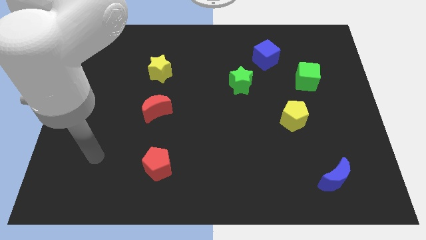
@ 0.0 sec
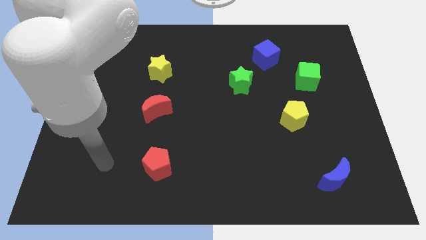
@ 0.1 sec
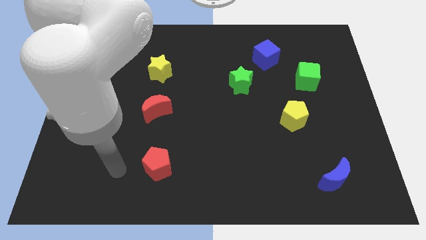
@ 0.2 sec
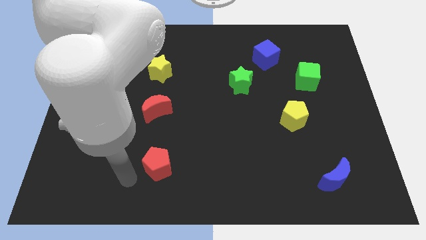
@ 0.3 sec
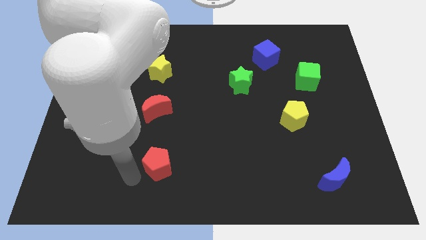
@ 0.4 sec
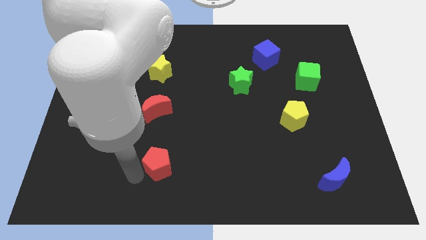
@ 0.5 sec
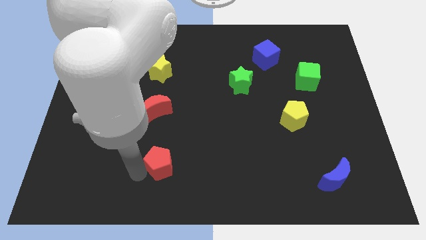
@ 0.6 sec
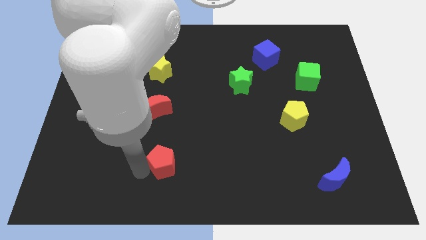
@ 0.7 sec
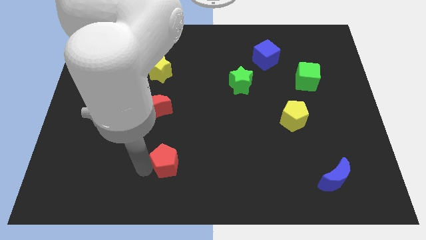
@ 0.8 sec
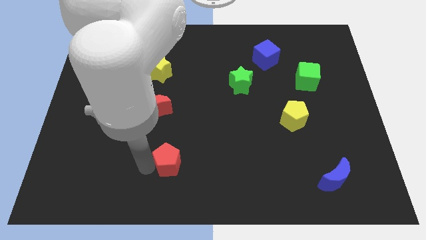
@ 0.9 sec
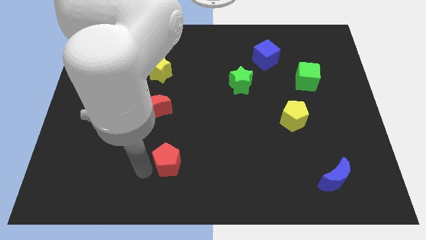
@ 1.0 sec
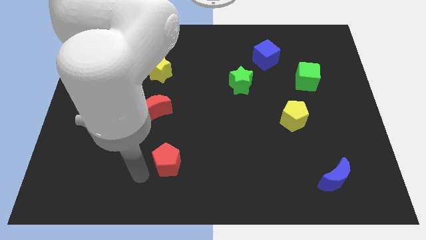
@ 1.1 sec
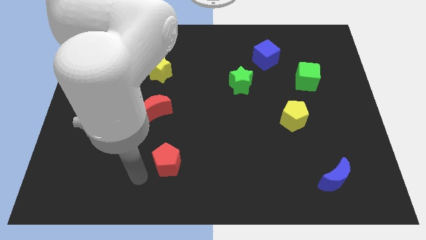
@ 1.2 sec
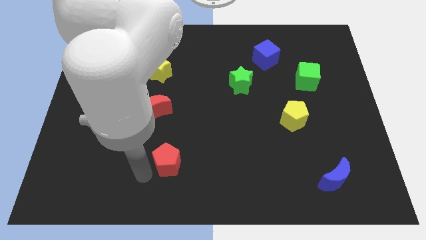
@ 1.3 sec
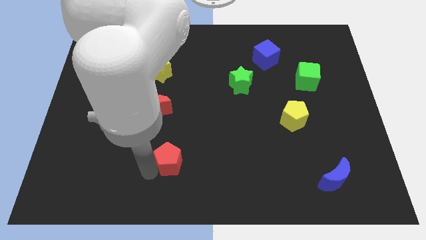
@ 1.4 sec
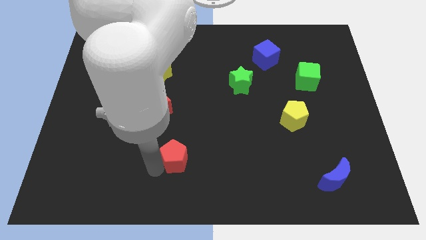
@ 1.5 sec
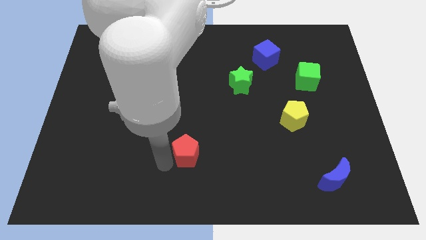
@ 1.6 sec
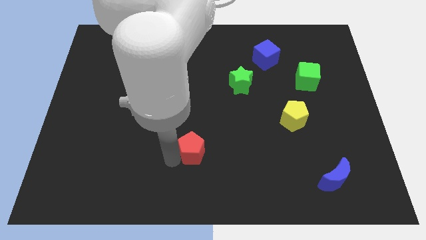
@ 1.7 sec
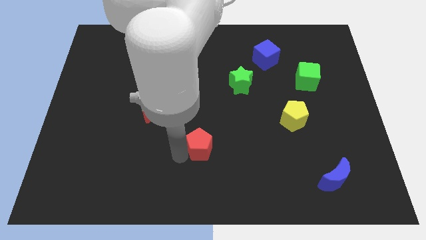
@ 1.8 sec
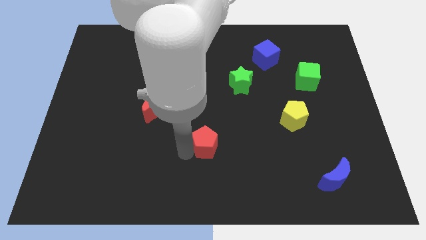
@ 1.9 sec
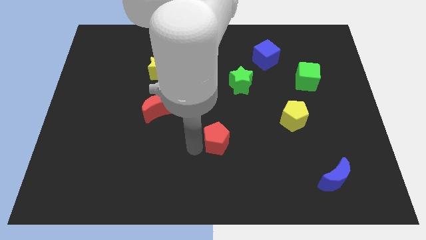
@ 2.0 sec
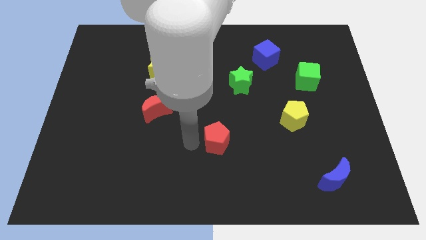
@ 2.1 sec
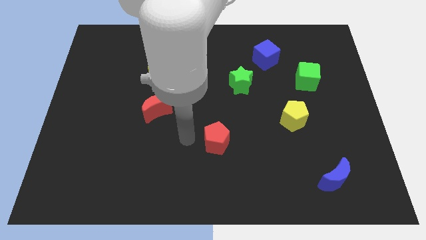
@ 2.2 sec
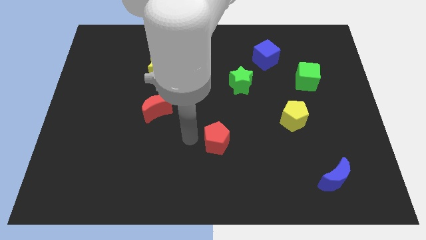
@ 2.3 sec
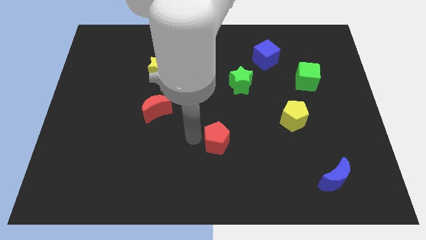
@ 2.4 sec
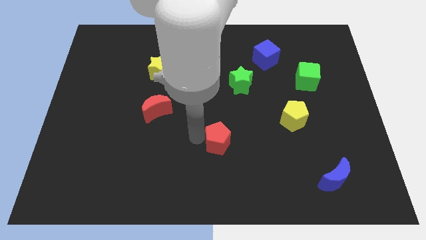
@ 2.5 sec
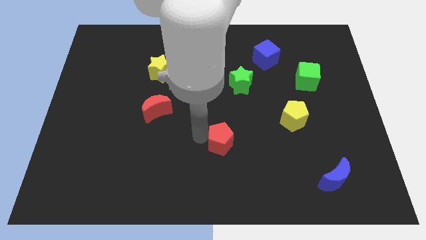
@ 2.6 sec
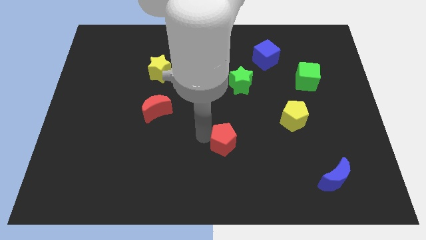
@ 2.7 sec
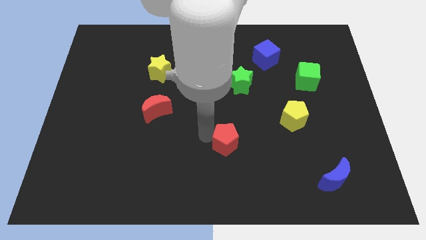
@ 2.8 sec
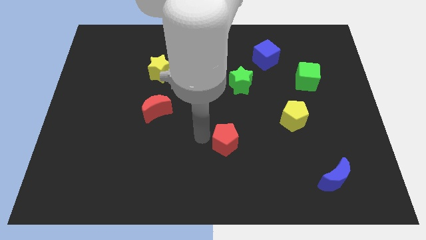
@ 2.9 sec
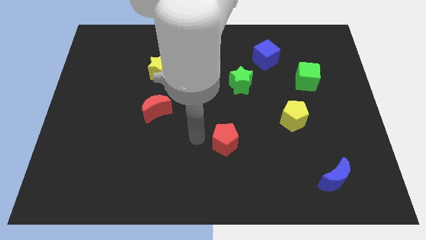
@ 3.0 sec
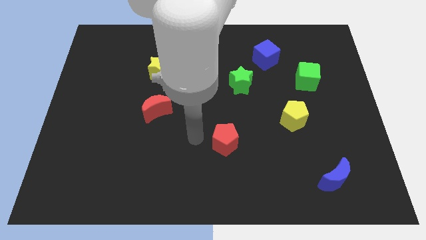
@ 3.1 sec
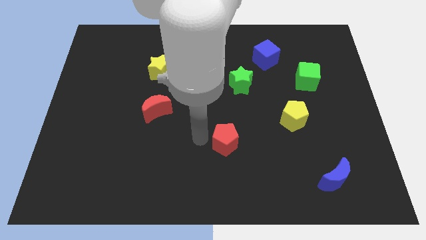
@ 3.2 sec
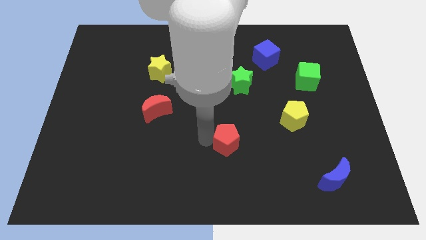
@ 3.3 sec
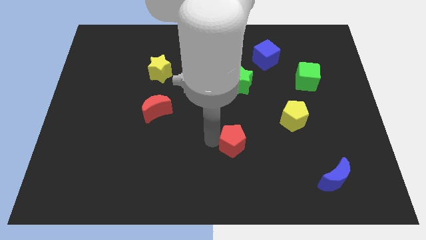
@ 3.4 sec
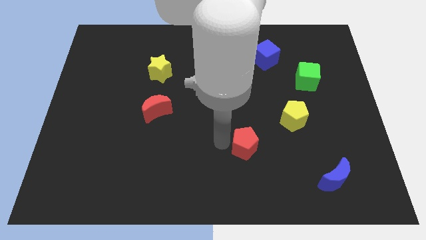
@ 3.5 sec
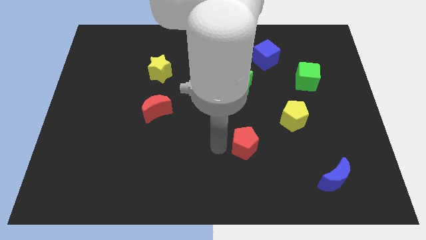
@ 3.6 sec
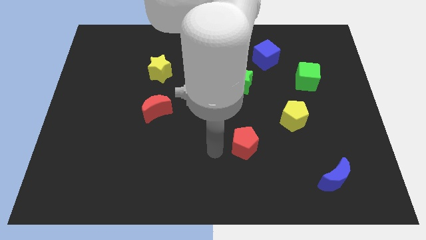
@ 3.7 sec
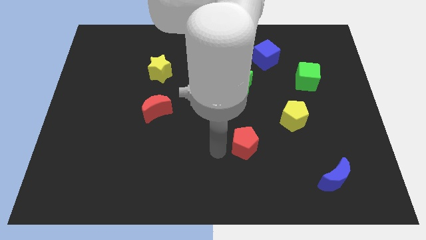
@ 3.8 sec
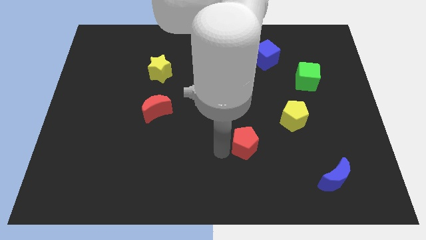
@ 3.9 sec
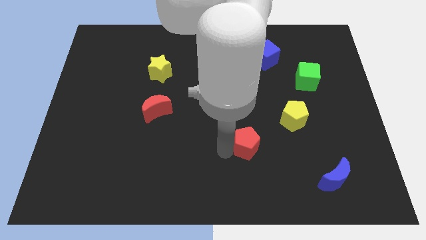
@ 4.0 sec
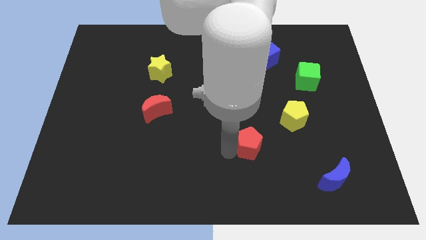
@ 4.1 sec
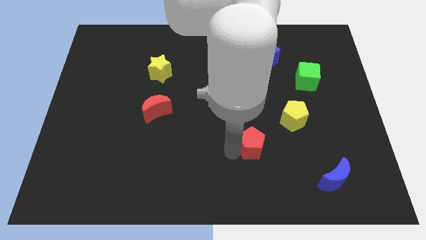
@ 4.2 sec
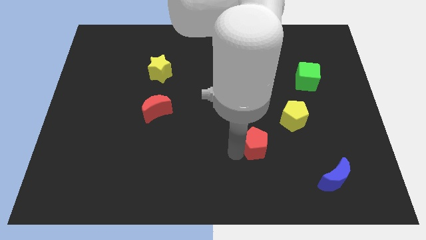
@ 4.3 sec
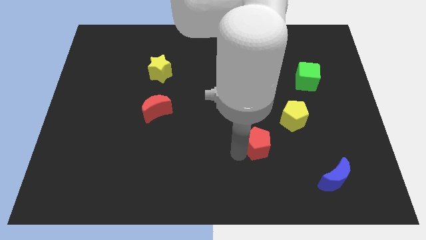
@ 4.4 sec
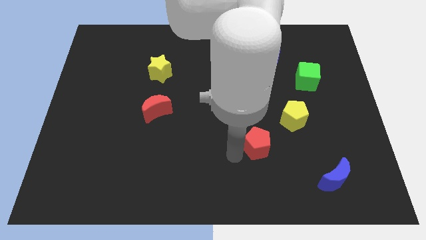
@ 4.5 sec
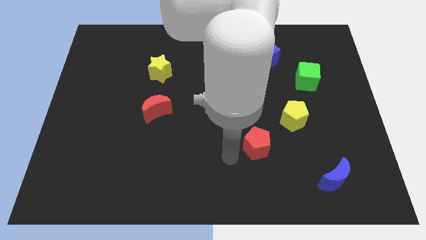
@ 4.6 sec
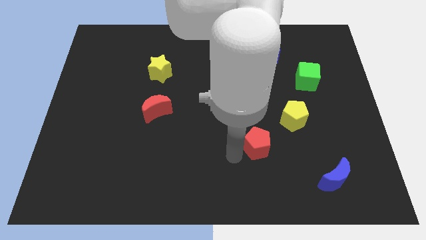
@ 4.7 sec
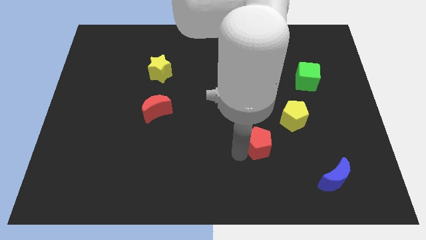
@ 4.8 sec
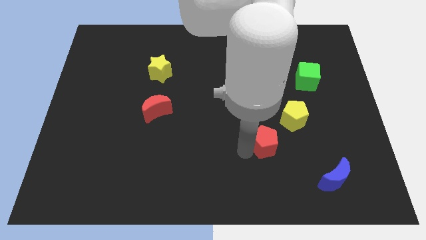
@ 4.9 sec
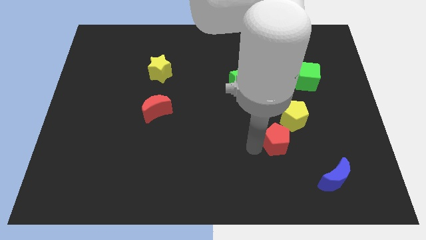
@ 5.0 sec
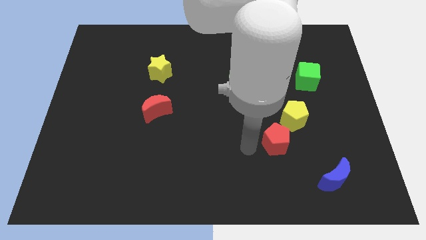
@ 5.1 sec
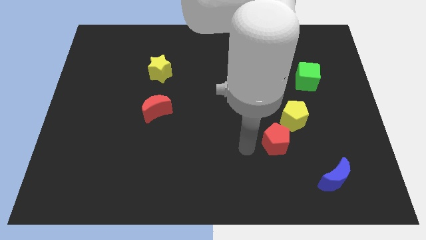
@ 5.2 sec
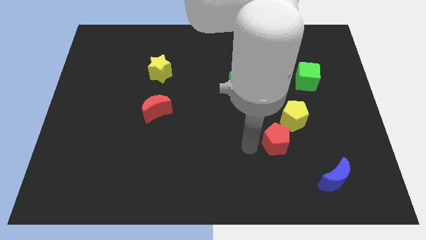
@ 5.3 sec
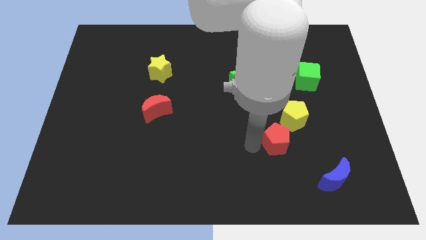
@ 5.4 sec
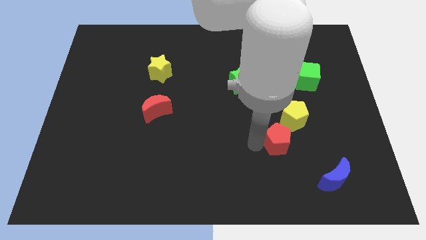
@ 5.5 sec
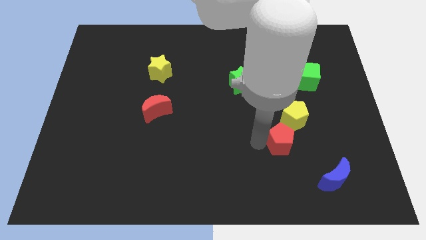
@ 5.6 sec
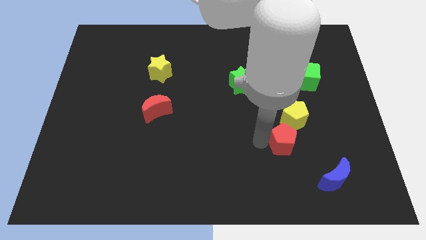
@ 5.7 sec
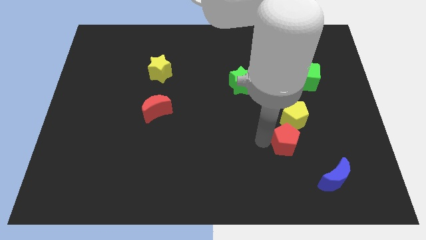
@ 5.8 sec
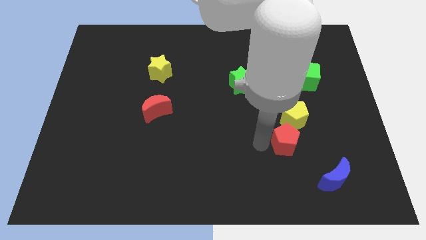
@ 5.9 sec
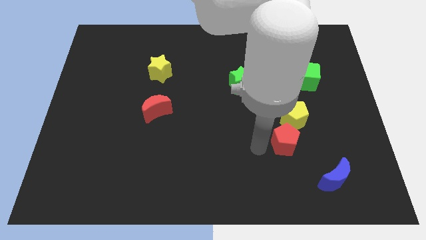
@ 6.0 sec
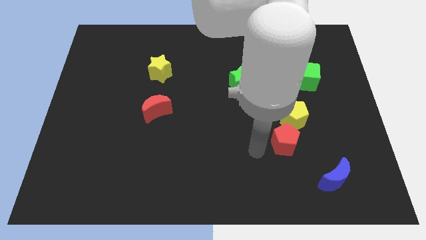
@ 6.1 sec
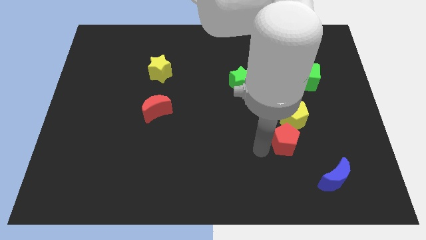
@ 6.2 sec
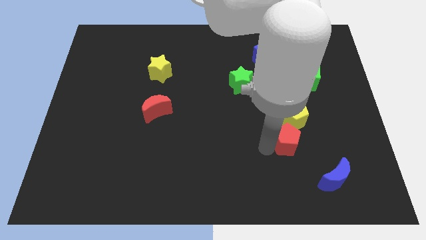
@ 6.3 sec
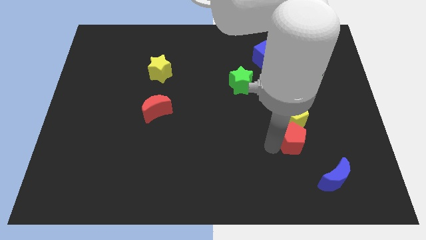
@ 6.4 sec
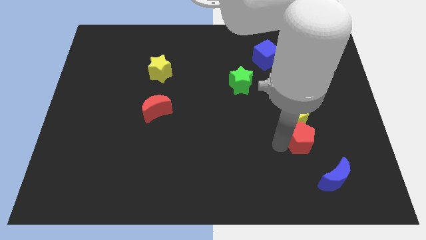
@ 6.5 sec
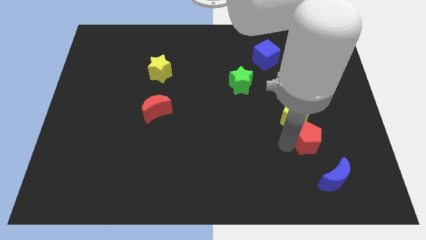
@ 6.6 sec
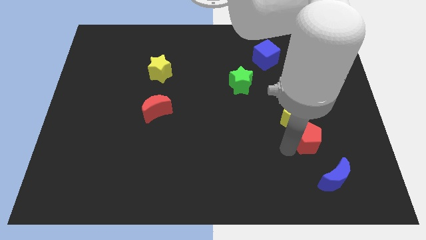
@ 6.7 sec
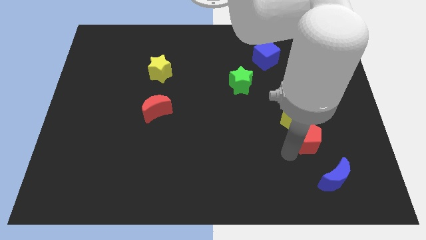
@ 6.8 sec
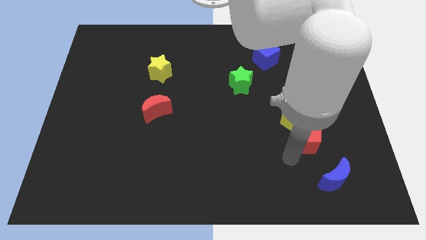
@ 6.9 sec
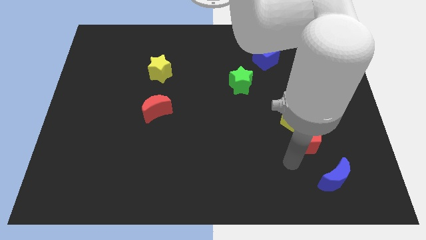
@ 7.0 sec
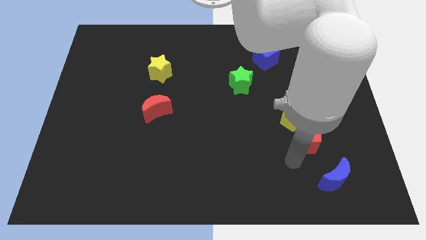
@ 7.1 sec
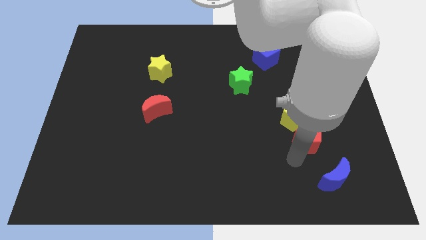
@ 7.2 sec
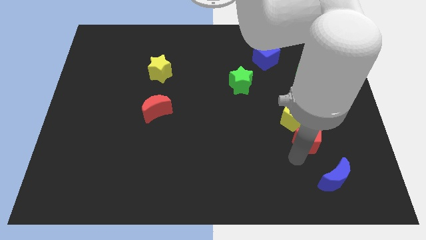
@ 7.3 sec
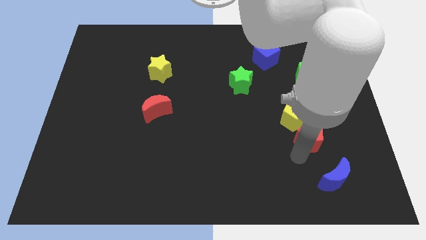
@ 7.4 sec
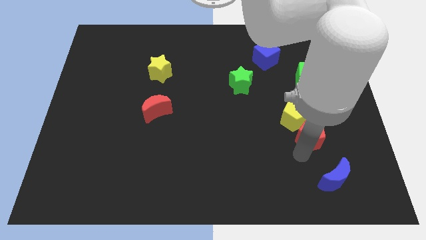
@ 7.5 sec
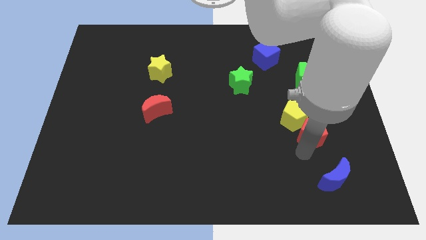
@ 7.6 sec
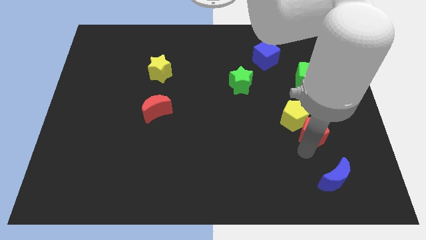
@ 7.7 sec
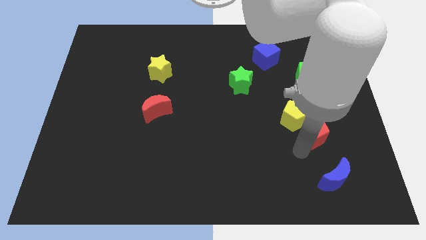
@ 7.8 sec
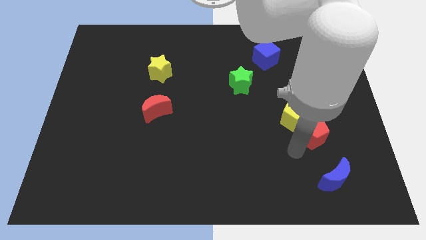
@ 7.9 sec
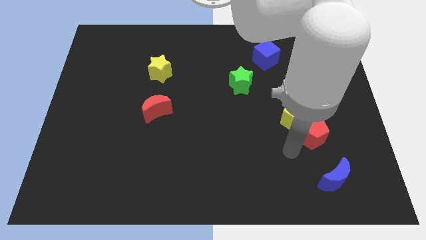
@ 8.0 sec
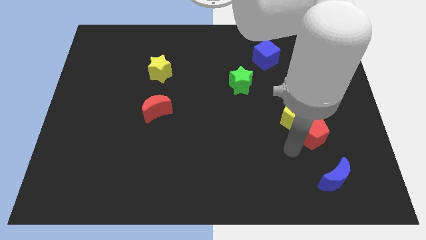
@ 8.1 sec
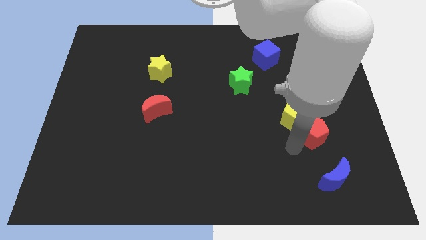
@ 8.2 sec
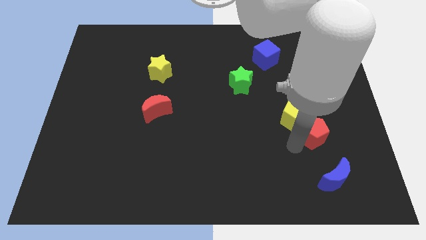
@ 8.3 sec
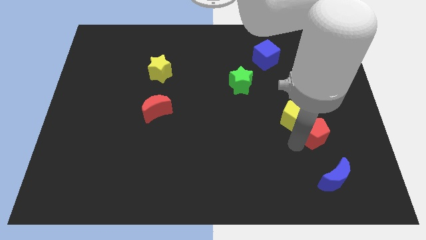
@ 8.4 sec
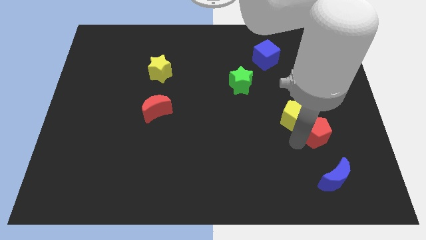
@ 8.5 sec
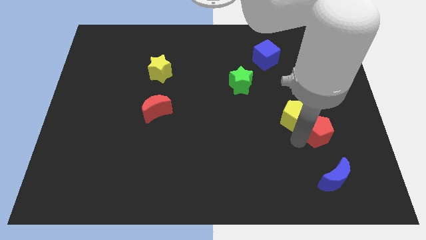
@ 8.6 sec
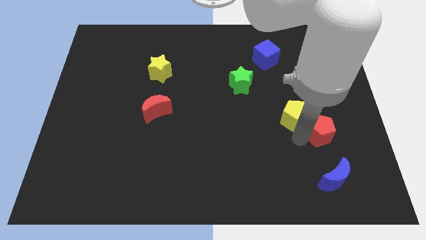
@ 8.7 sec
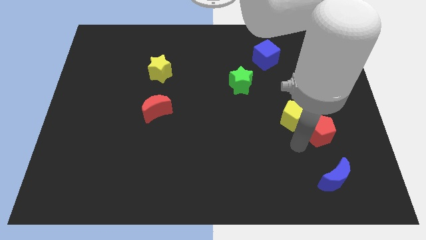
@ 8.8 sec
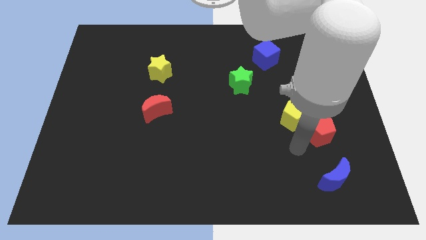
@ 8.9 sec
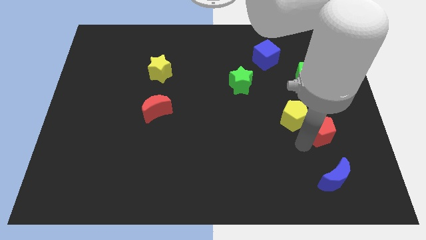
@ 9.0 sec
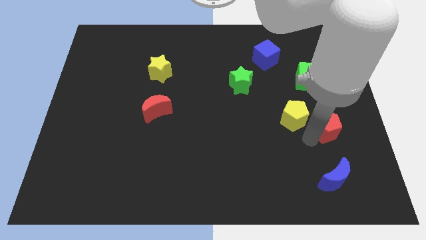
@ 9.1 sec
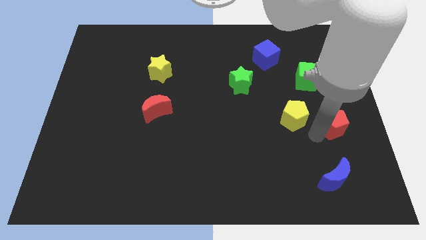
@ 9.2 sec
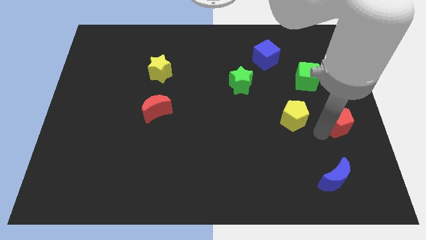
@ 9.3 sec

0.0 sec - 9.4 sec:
put the red pentagon to the right side of the board
